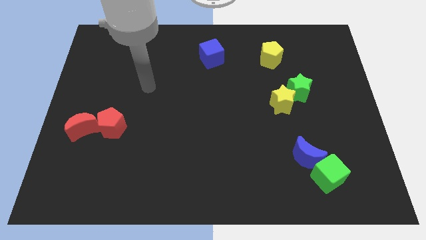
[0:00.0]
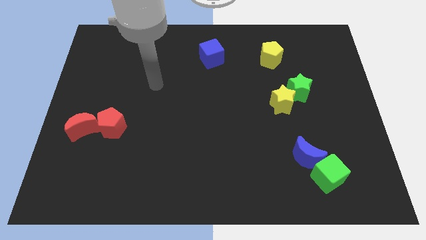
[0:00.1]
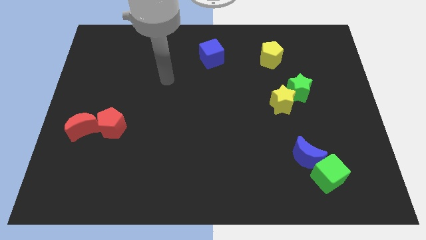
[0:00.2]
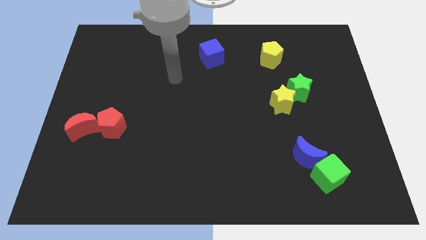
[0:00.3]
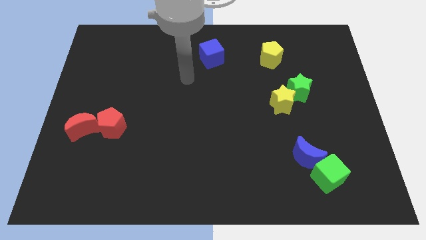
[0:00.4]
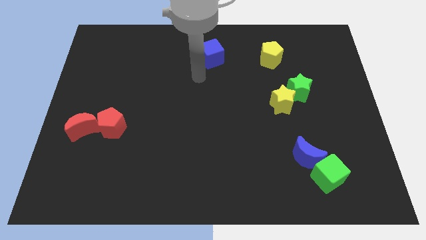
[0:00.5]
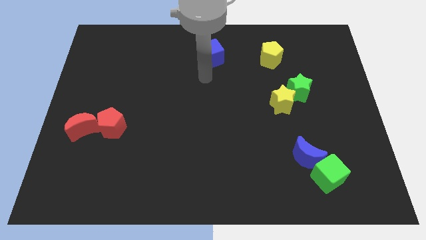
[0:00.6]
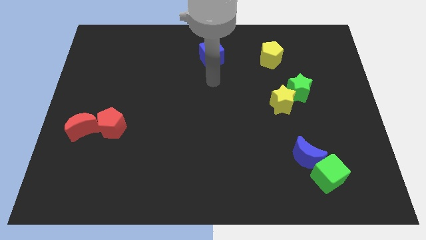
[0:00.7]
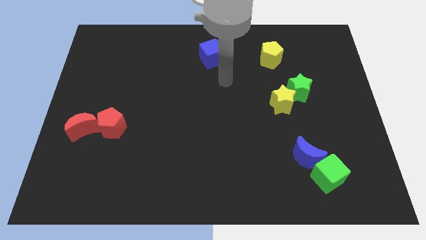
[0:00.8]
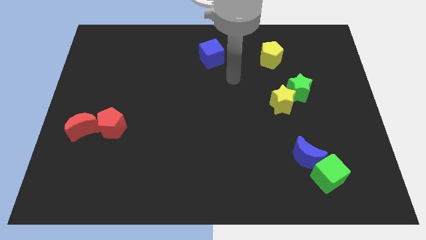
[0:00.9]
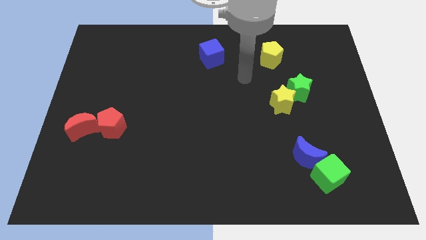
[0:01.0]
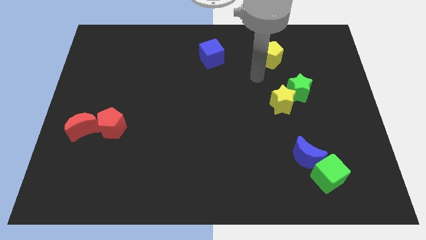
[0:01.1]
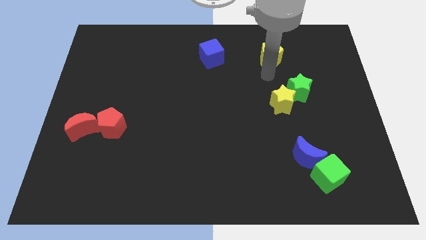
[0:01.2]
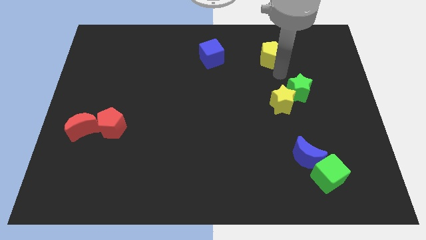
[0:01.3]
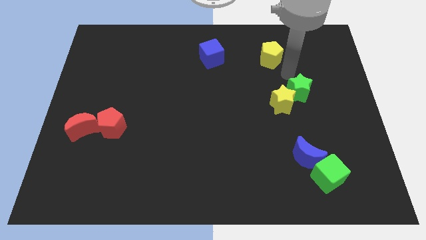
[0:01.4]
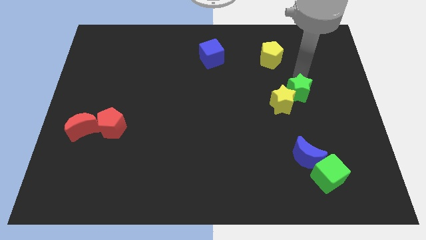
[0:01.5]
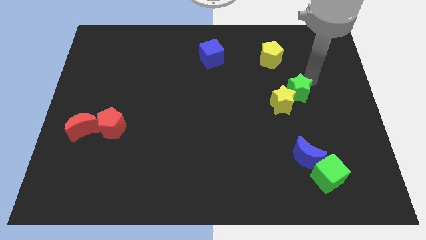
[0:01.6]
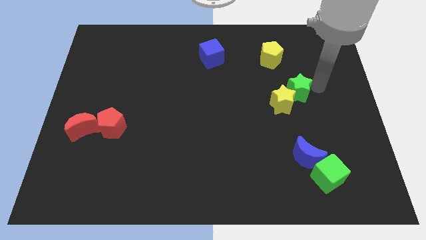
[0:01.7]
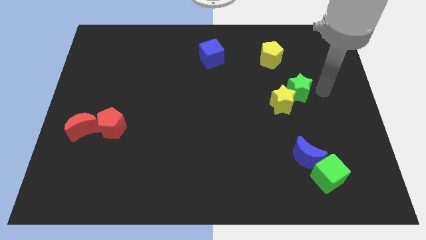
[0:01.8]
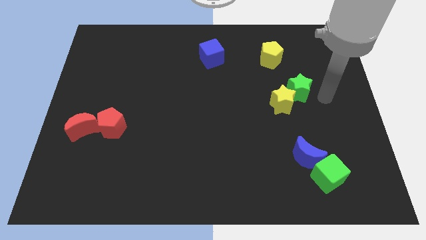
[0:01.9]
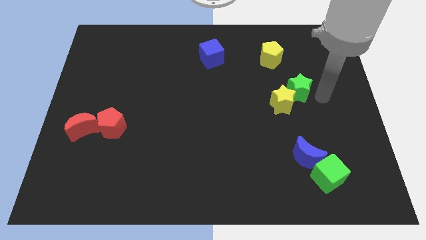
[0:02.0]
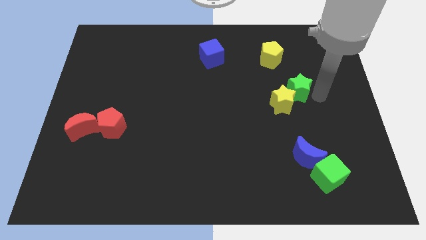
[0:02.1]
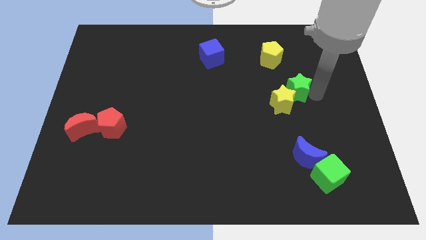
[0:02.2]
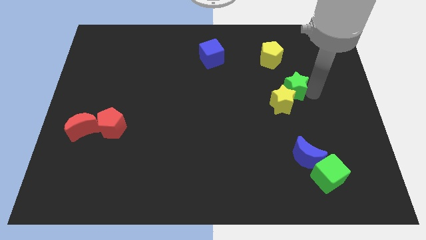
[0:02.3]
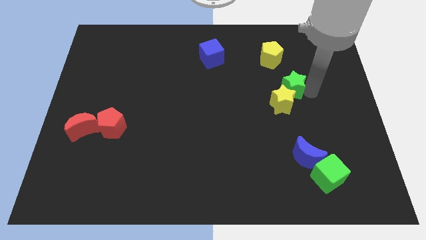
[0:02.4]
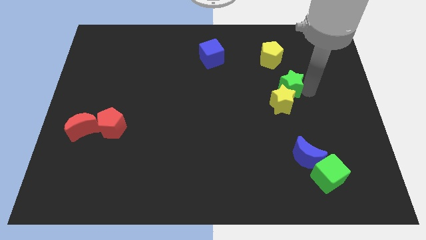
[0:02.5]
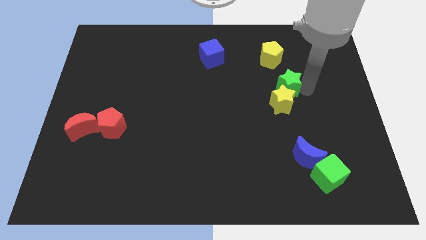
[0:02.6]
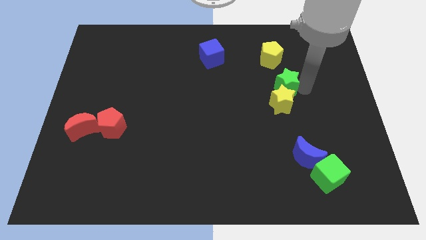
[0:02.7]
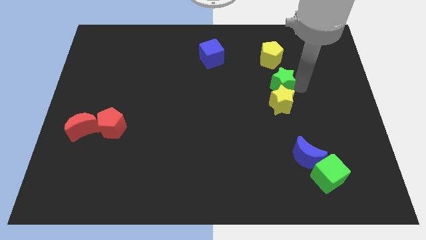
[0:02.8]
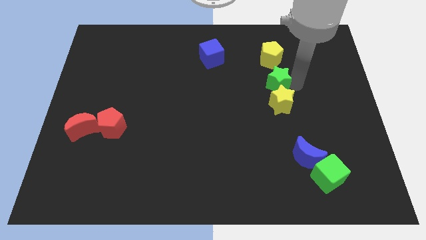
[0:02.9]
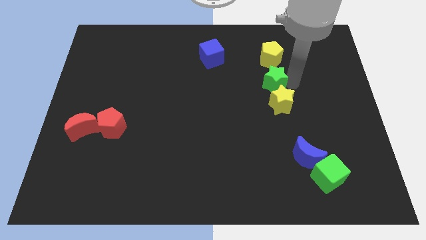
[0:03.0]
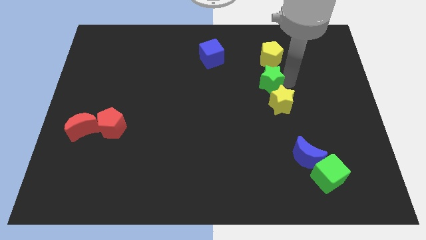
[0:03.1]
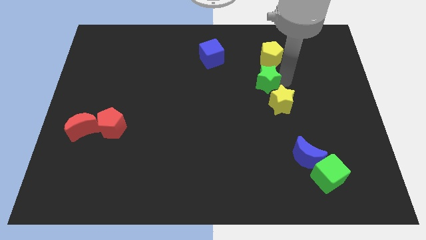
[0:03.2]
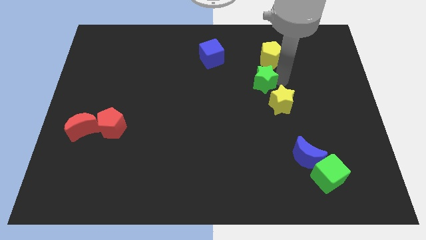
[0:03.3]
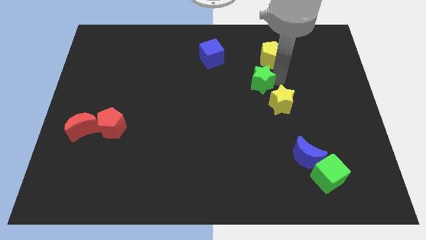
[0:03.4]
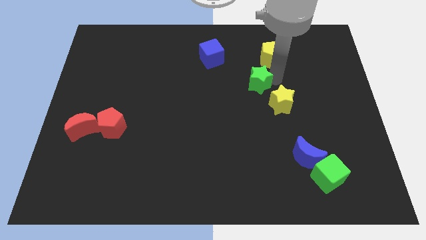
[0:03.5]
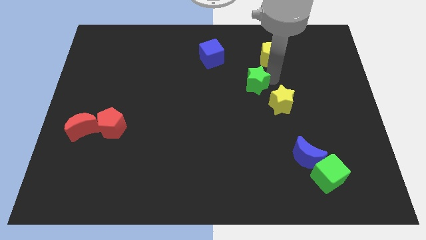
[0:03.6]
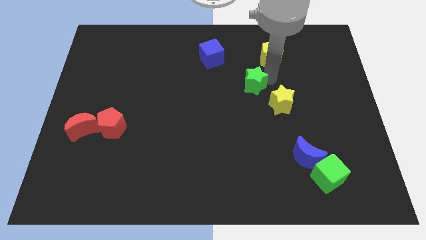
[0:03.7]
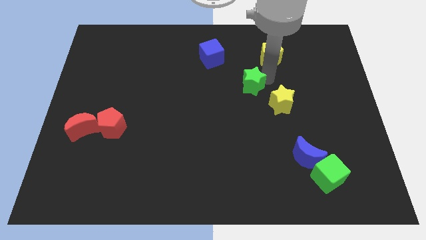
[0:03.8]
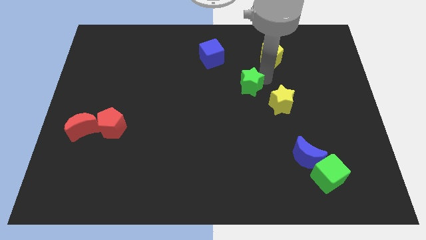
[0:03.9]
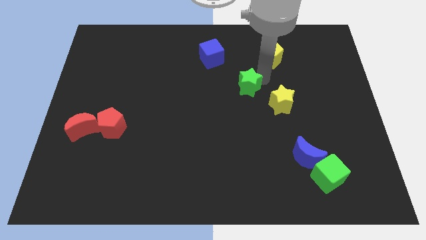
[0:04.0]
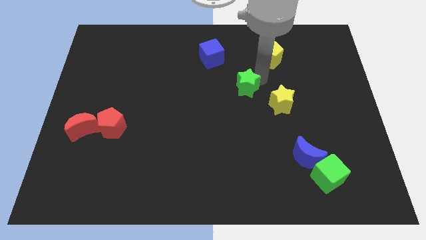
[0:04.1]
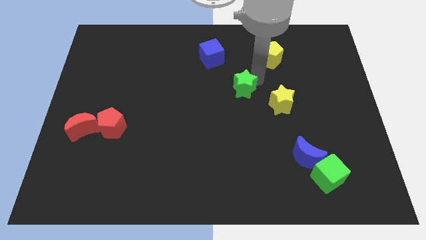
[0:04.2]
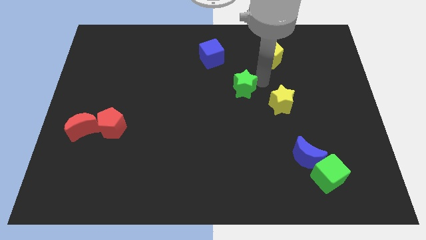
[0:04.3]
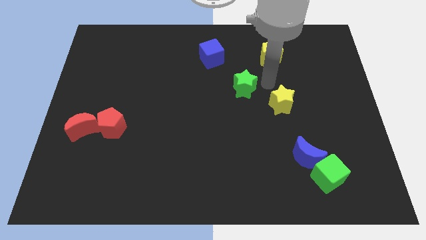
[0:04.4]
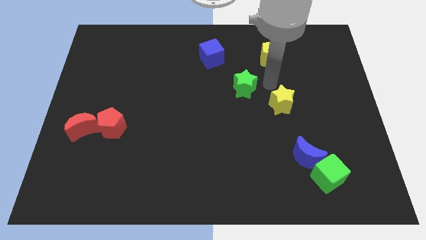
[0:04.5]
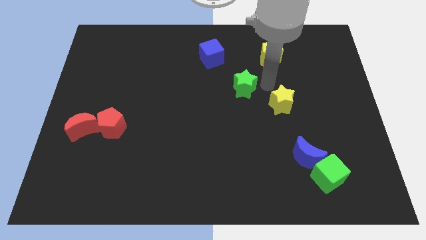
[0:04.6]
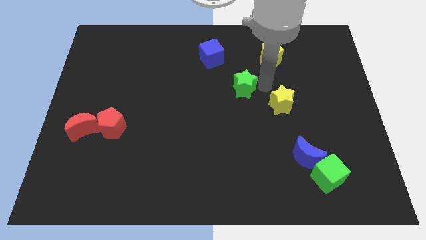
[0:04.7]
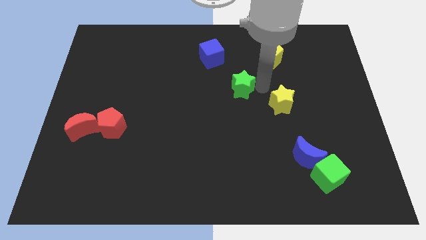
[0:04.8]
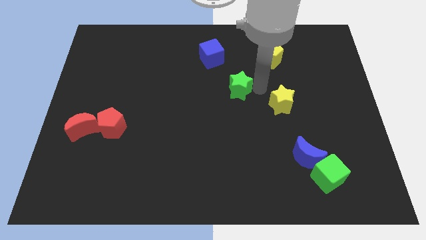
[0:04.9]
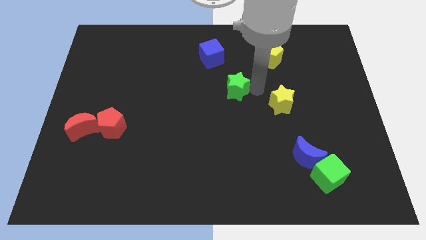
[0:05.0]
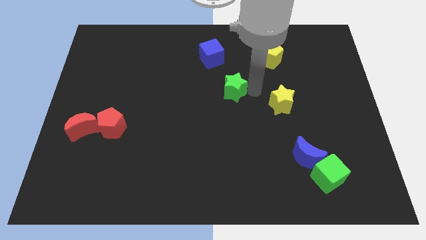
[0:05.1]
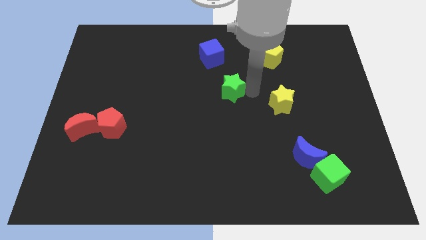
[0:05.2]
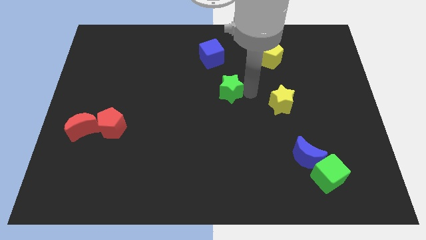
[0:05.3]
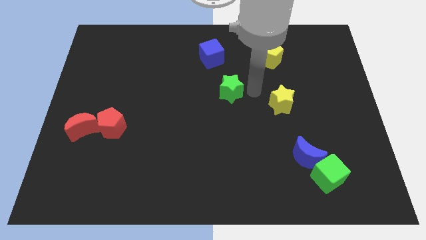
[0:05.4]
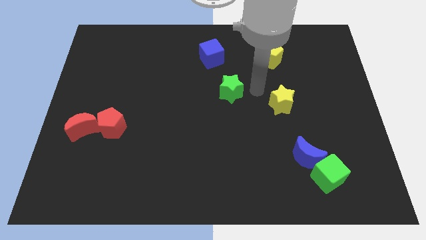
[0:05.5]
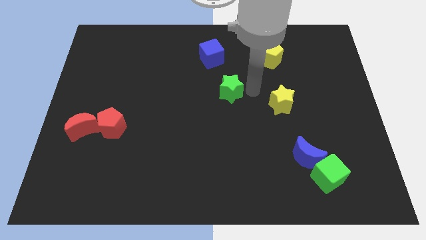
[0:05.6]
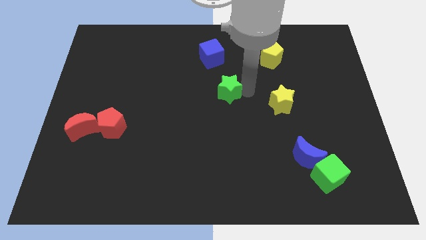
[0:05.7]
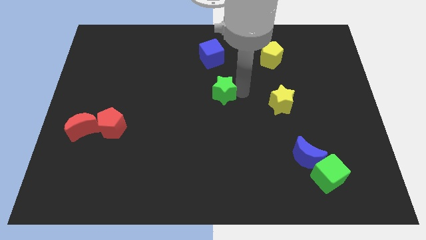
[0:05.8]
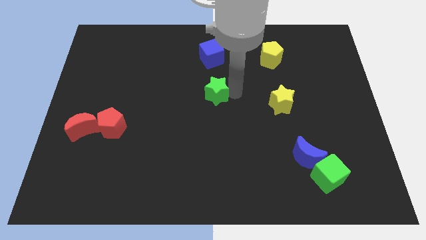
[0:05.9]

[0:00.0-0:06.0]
push the green star to the left

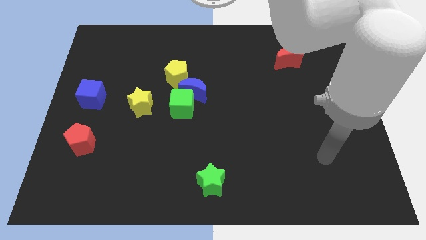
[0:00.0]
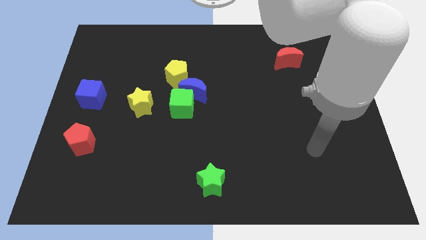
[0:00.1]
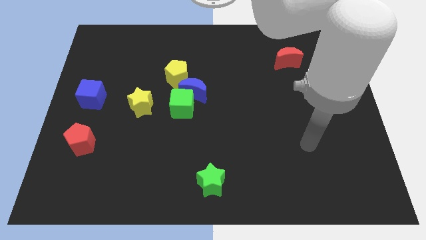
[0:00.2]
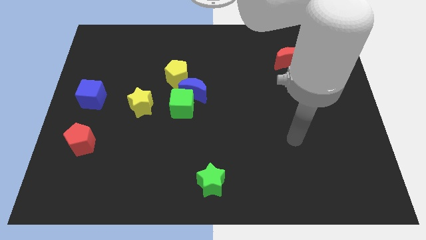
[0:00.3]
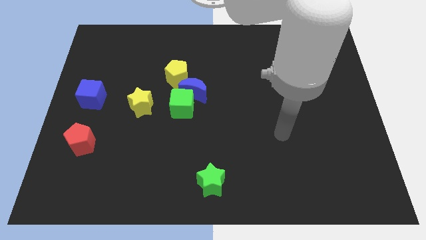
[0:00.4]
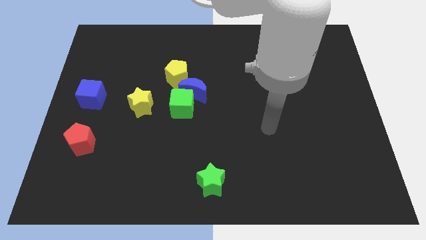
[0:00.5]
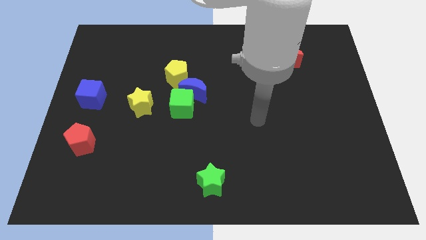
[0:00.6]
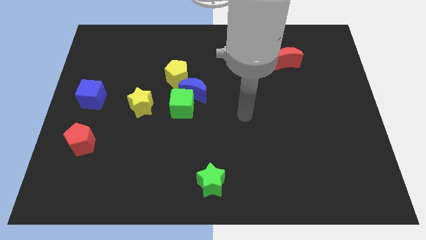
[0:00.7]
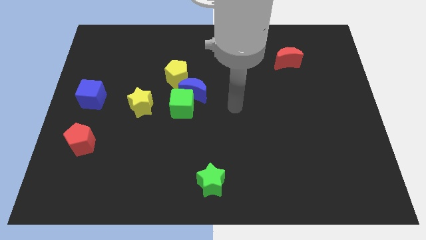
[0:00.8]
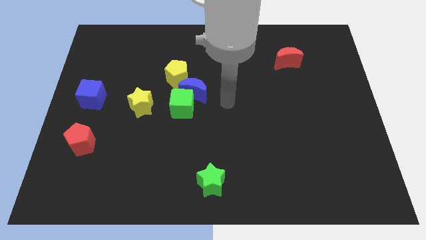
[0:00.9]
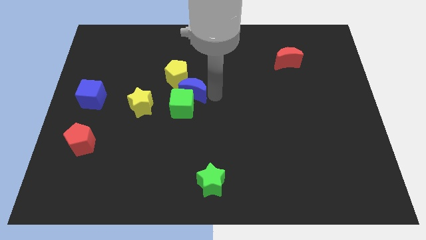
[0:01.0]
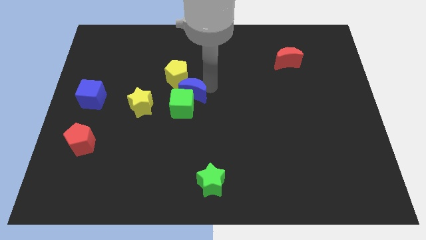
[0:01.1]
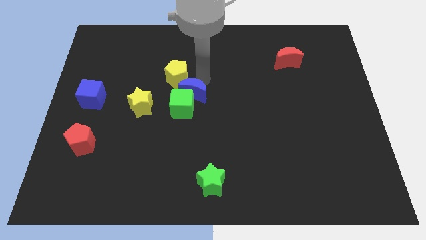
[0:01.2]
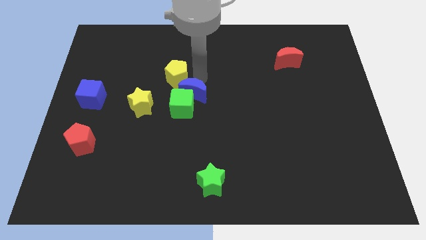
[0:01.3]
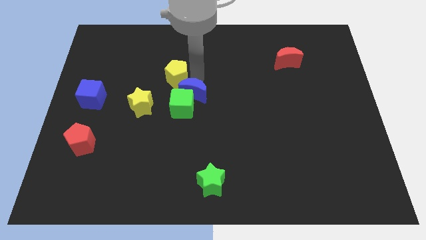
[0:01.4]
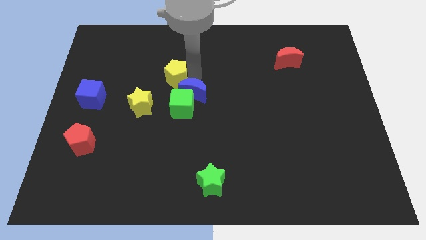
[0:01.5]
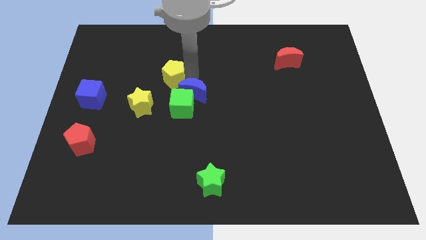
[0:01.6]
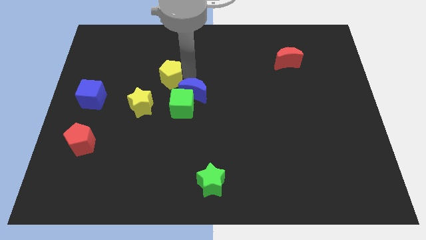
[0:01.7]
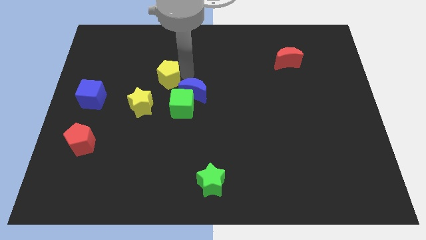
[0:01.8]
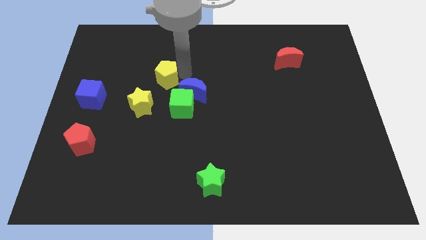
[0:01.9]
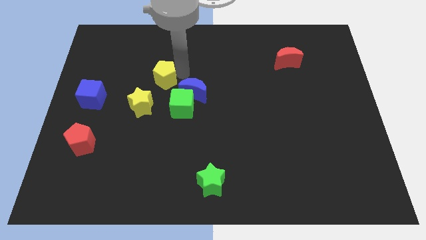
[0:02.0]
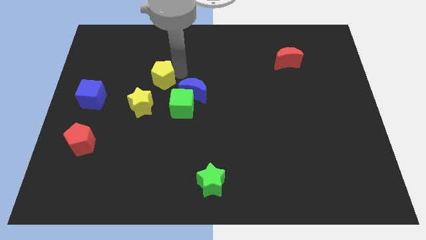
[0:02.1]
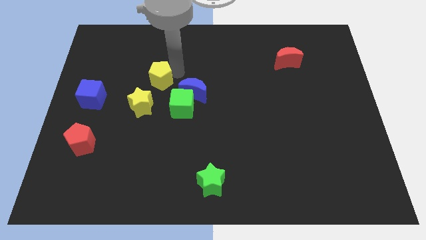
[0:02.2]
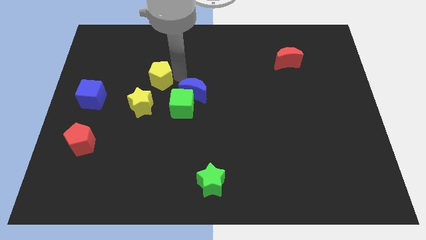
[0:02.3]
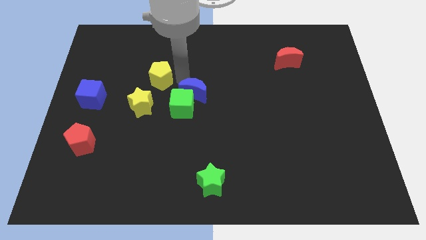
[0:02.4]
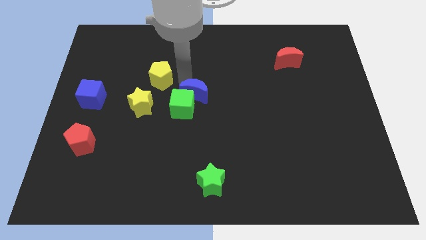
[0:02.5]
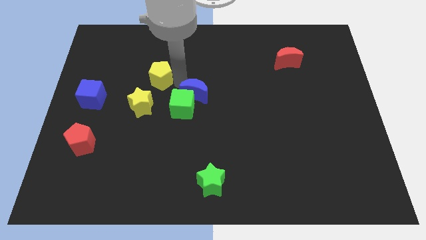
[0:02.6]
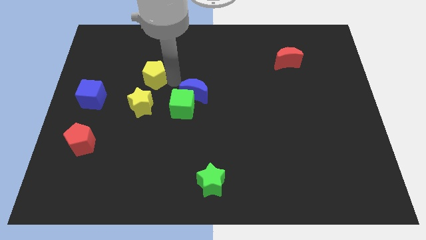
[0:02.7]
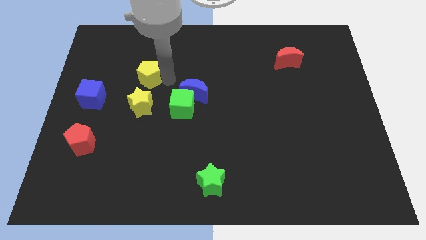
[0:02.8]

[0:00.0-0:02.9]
push the yellow pentagon left somewhat
